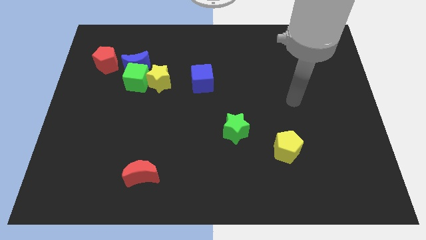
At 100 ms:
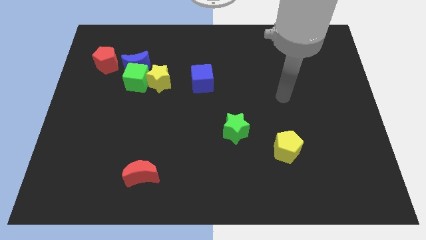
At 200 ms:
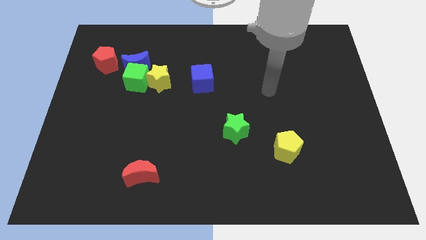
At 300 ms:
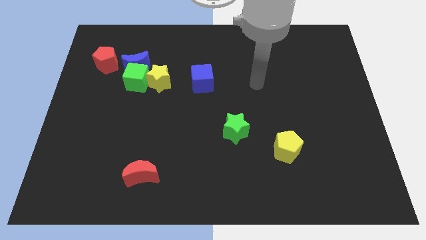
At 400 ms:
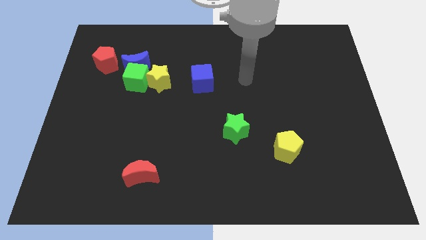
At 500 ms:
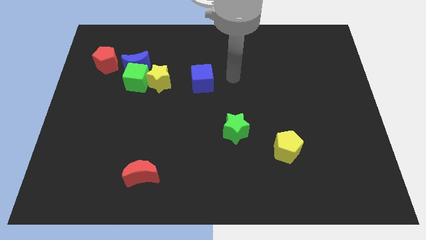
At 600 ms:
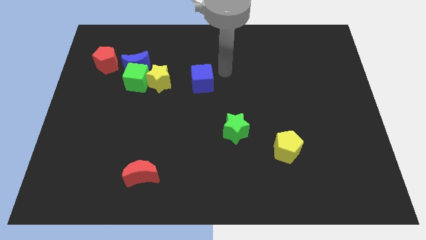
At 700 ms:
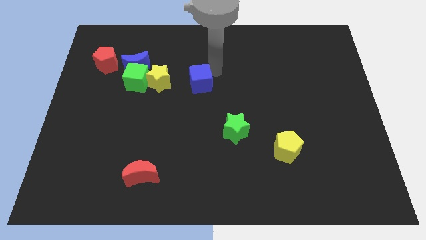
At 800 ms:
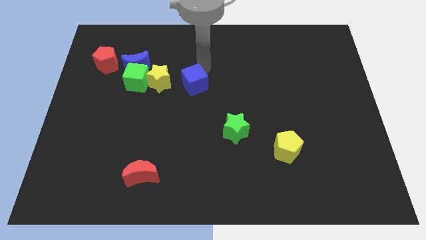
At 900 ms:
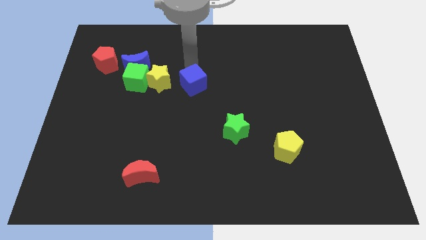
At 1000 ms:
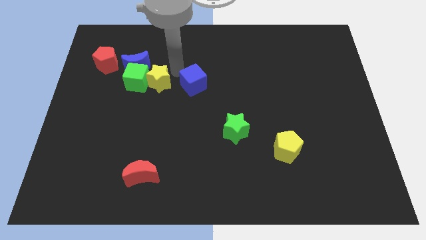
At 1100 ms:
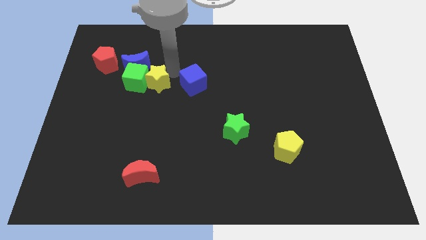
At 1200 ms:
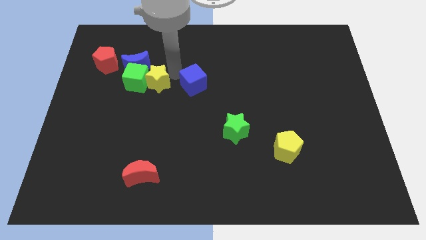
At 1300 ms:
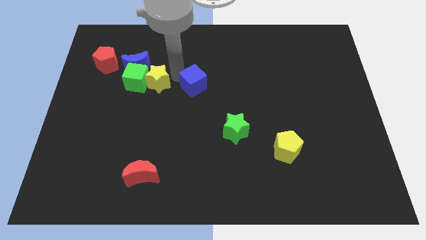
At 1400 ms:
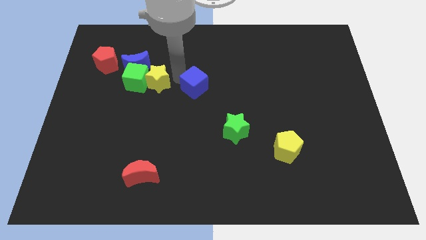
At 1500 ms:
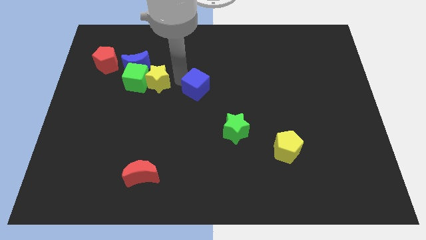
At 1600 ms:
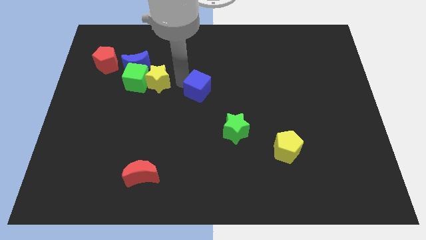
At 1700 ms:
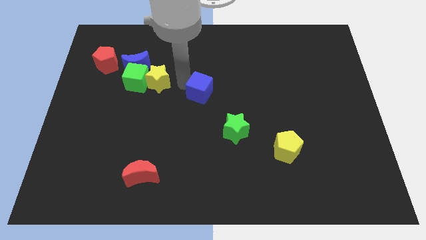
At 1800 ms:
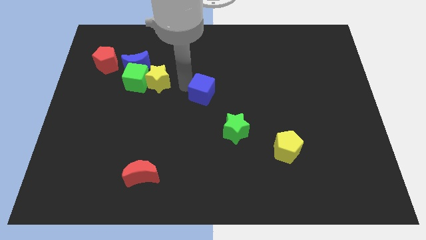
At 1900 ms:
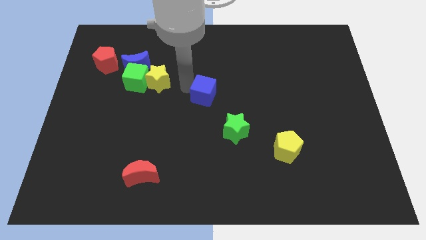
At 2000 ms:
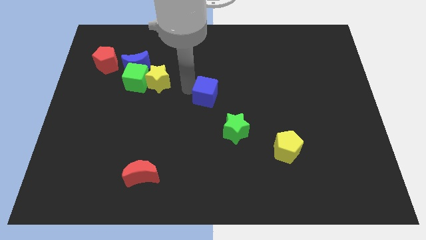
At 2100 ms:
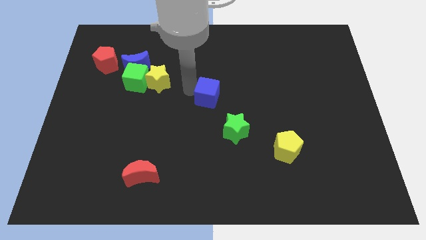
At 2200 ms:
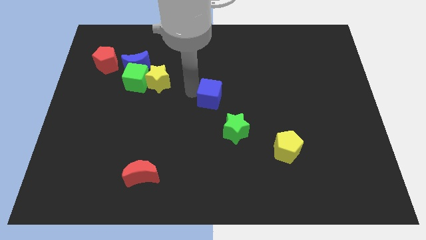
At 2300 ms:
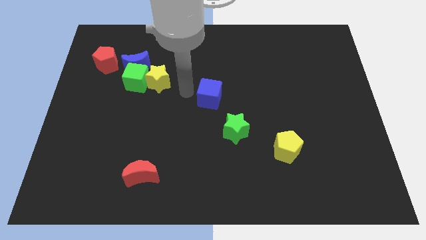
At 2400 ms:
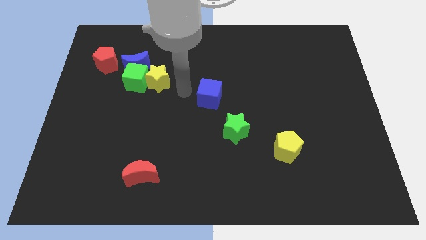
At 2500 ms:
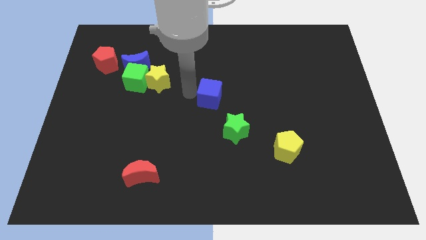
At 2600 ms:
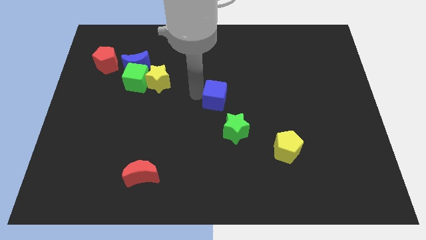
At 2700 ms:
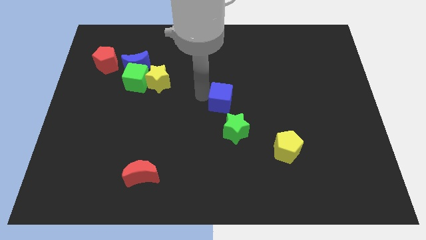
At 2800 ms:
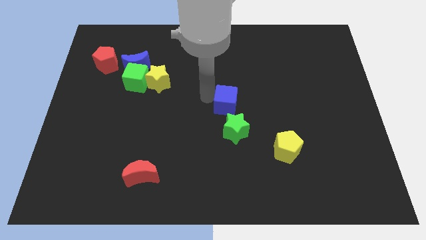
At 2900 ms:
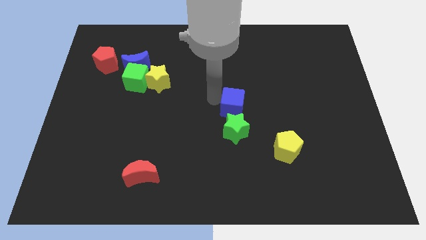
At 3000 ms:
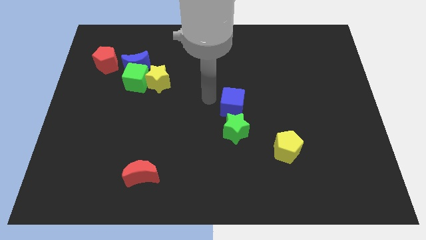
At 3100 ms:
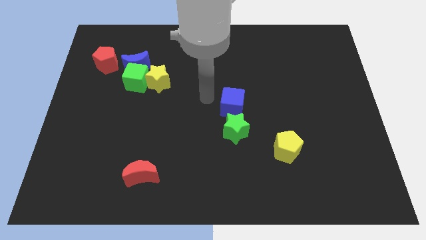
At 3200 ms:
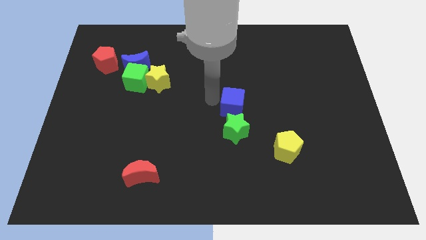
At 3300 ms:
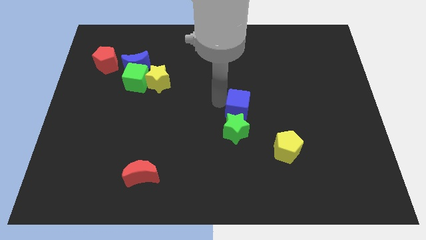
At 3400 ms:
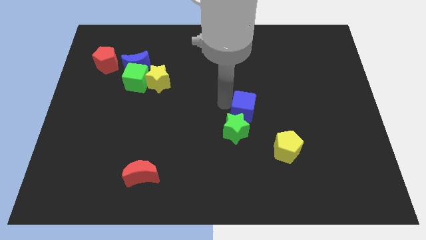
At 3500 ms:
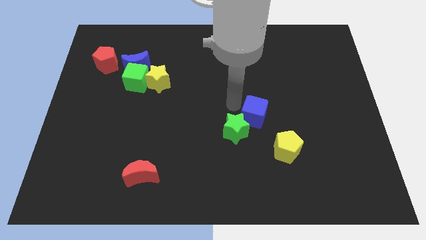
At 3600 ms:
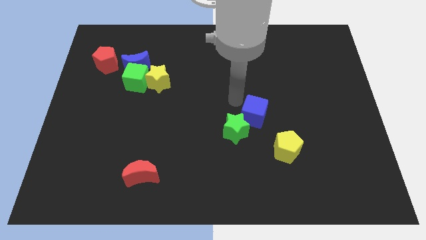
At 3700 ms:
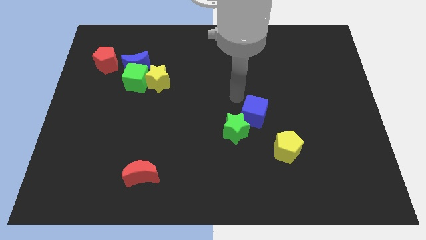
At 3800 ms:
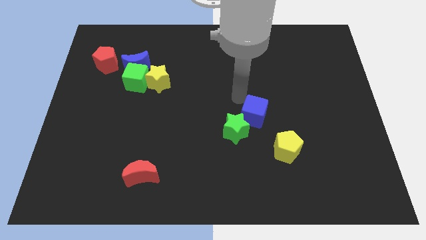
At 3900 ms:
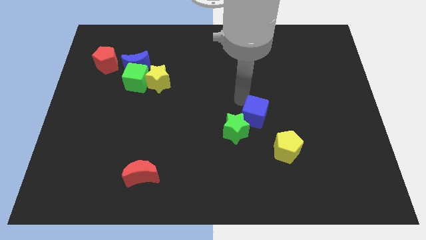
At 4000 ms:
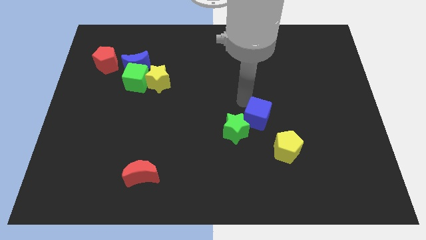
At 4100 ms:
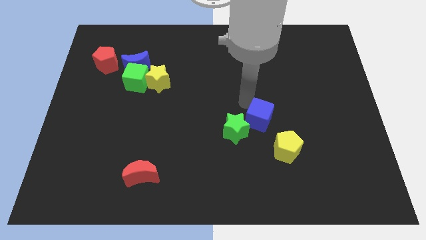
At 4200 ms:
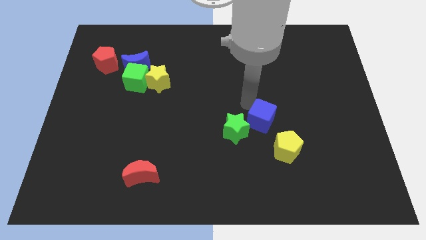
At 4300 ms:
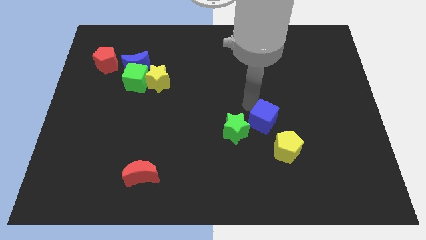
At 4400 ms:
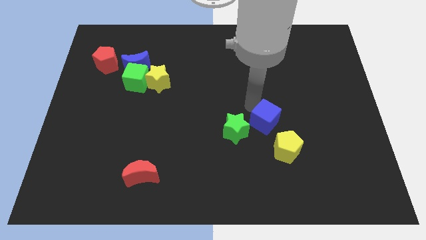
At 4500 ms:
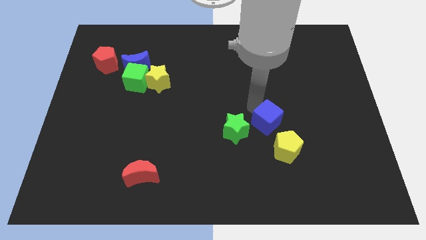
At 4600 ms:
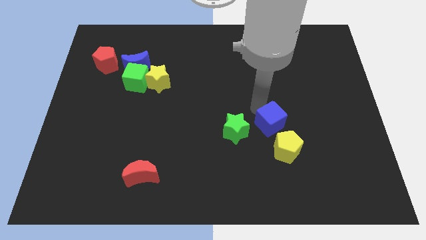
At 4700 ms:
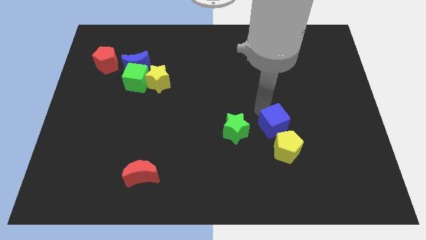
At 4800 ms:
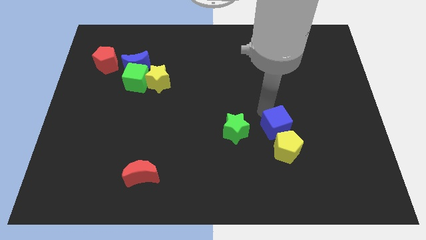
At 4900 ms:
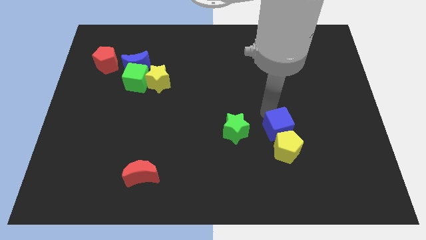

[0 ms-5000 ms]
slide the blue cube close to the yellow pentagon

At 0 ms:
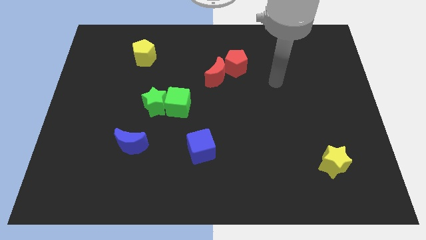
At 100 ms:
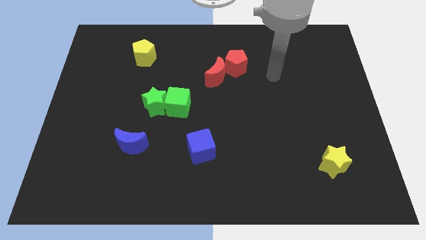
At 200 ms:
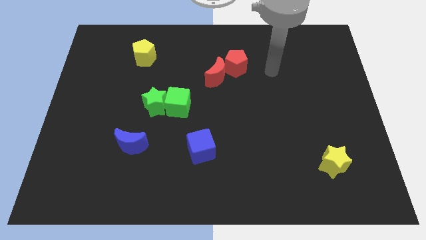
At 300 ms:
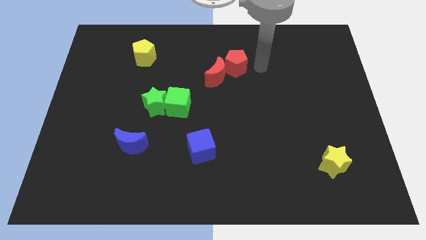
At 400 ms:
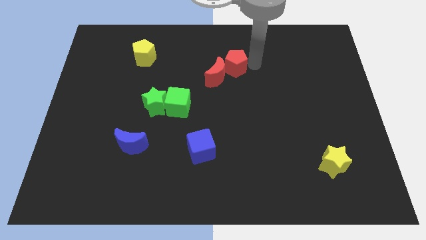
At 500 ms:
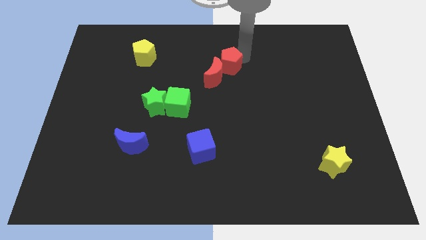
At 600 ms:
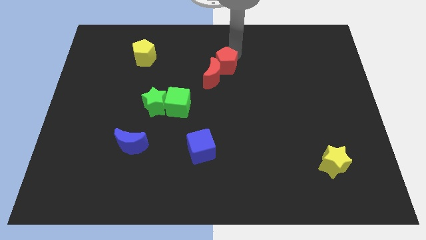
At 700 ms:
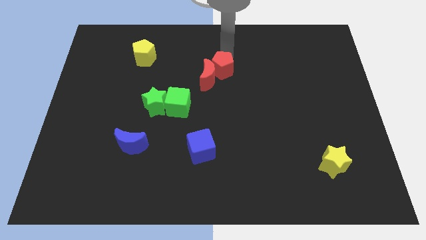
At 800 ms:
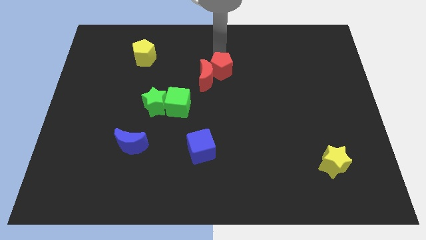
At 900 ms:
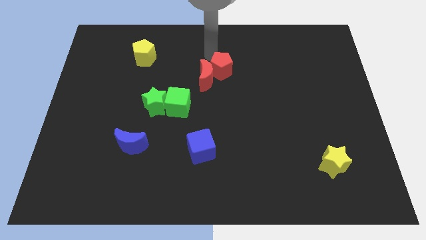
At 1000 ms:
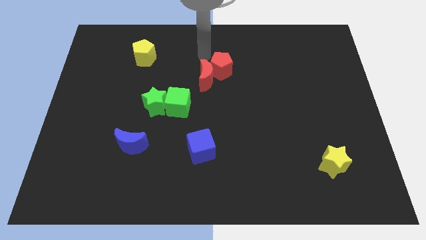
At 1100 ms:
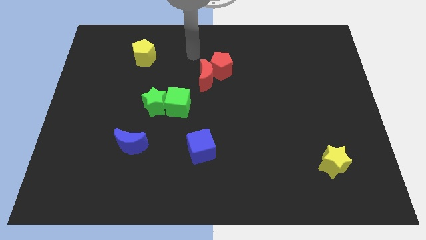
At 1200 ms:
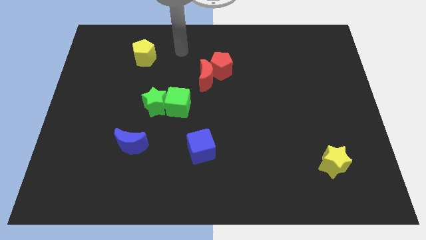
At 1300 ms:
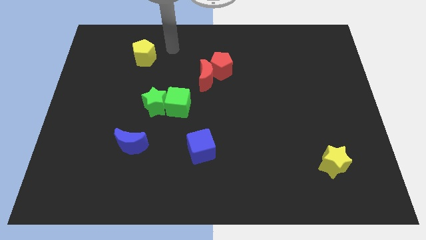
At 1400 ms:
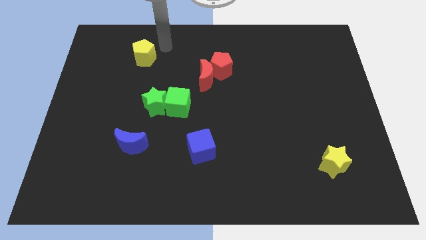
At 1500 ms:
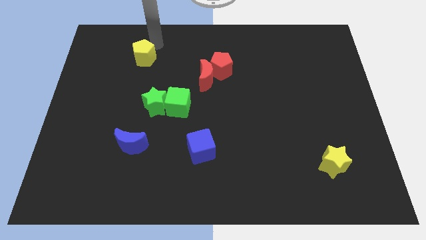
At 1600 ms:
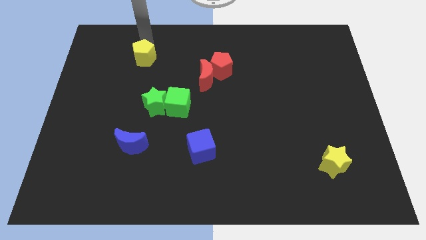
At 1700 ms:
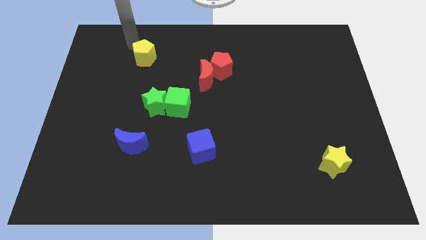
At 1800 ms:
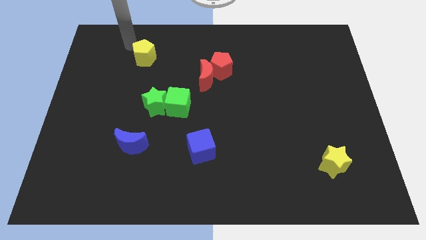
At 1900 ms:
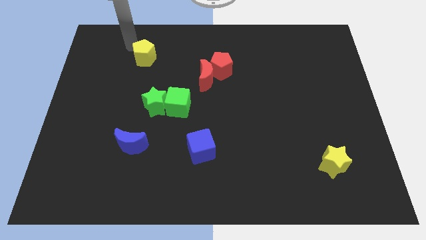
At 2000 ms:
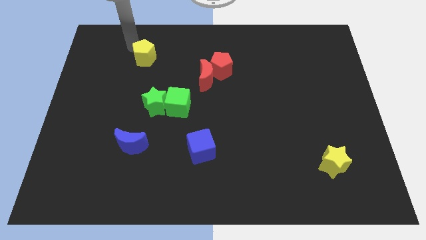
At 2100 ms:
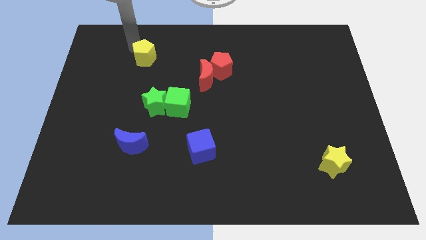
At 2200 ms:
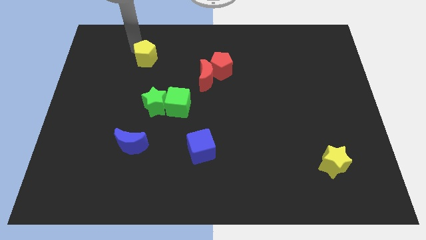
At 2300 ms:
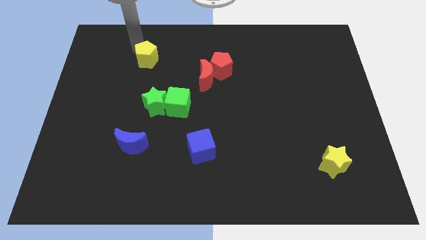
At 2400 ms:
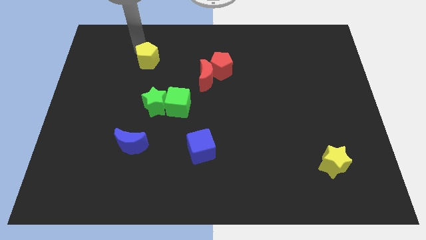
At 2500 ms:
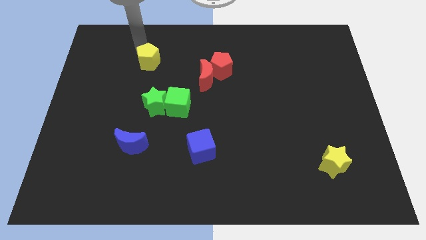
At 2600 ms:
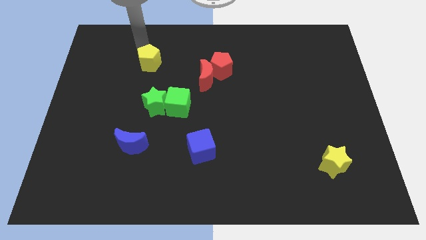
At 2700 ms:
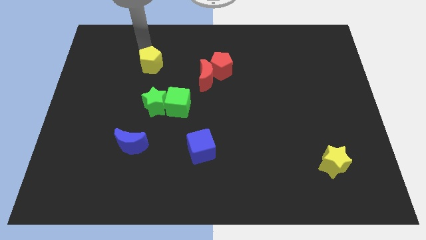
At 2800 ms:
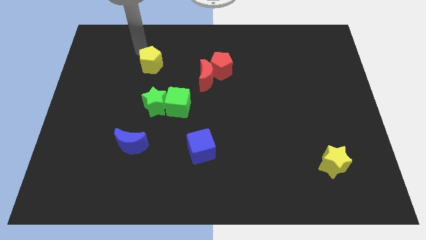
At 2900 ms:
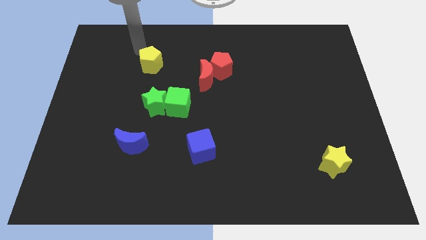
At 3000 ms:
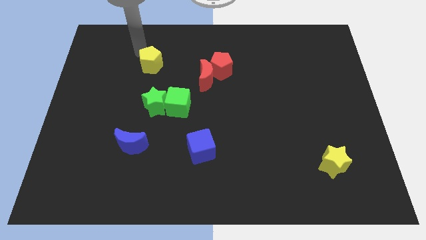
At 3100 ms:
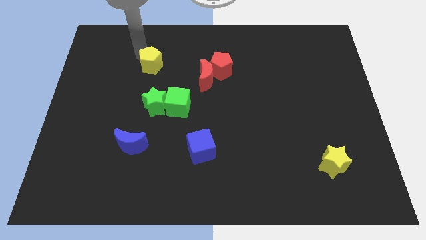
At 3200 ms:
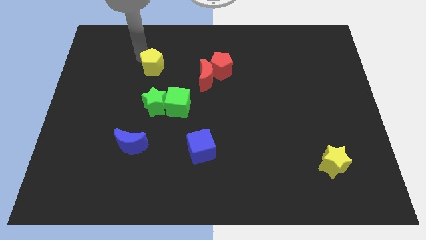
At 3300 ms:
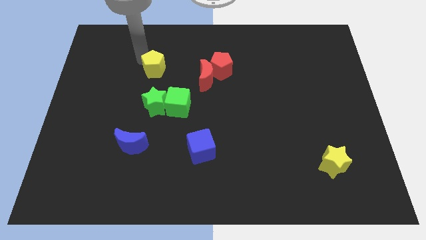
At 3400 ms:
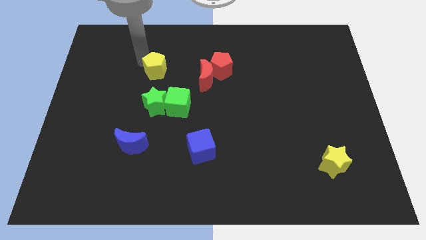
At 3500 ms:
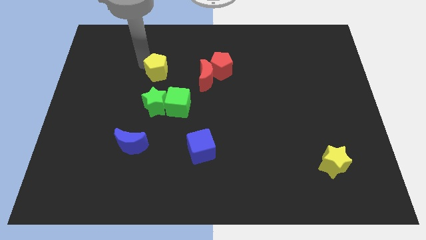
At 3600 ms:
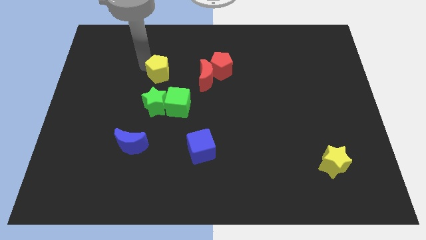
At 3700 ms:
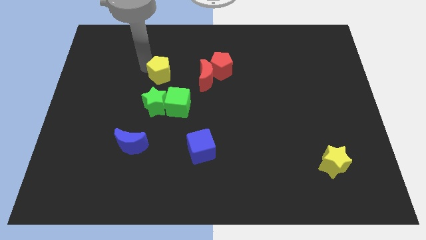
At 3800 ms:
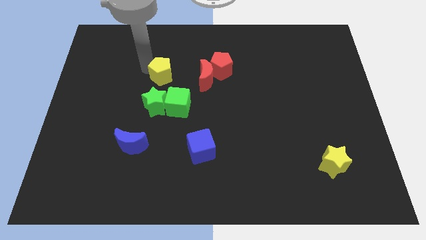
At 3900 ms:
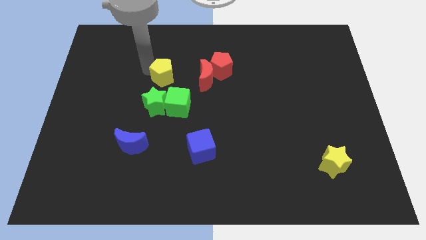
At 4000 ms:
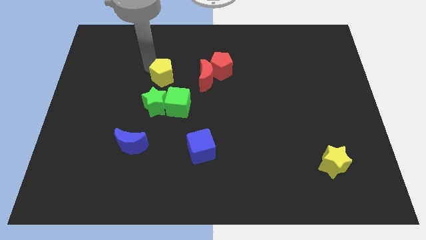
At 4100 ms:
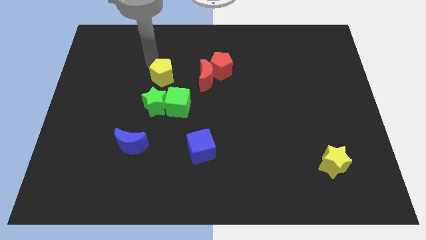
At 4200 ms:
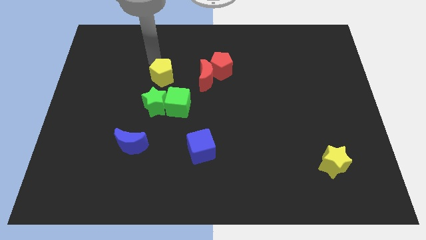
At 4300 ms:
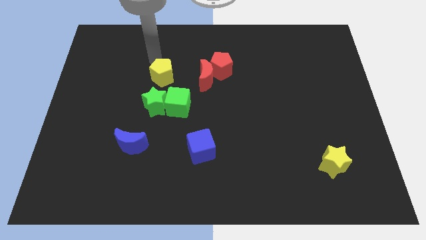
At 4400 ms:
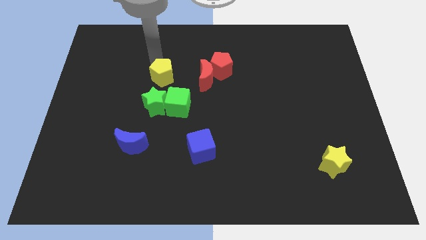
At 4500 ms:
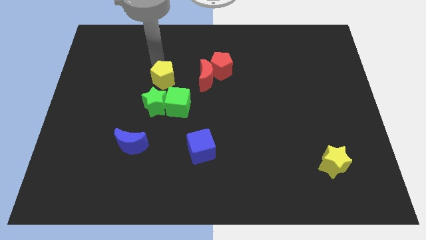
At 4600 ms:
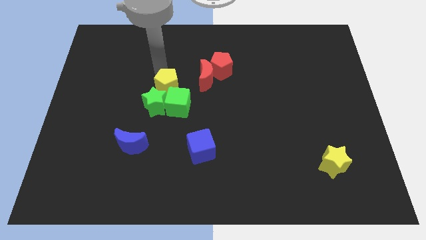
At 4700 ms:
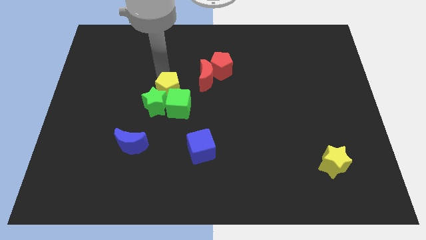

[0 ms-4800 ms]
push the yellow pentagon towards the green cube
